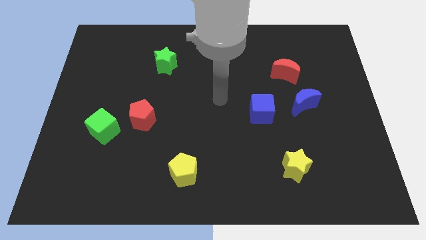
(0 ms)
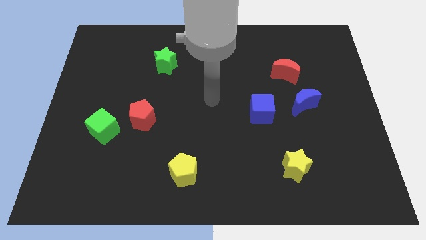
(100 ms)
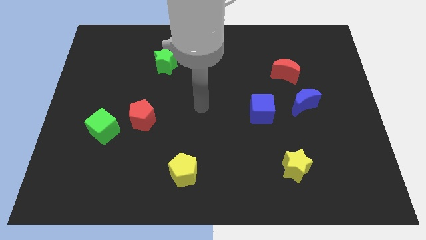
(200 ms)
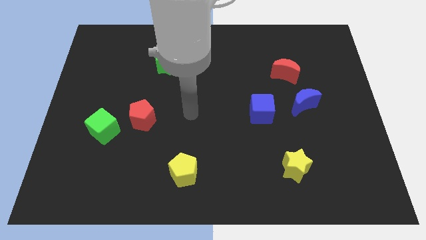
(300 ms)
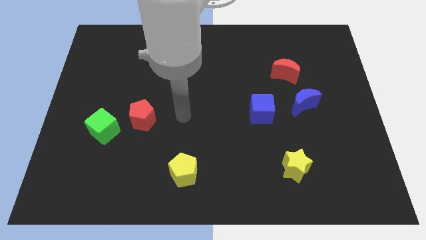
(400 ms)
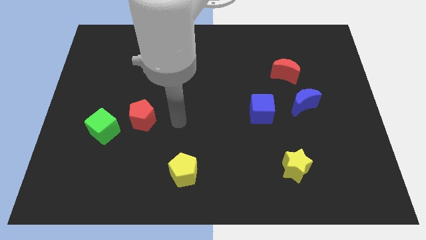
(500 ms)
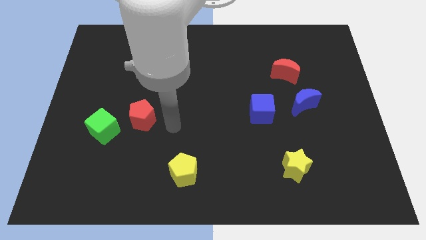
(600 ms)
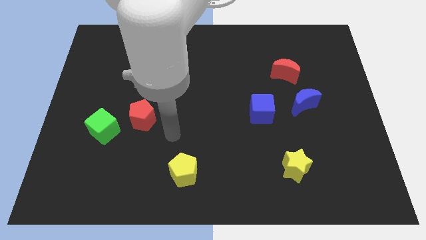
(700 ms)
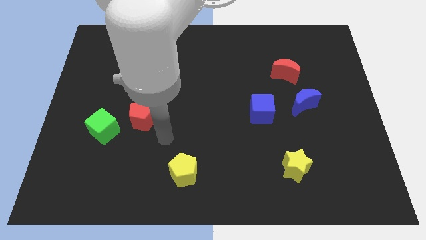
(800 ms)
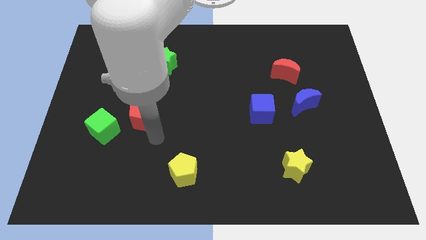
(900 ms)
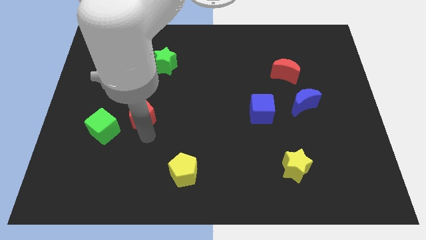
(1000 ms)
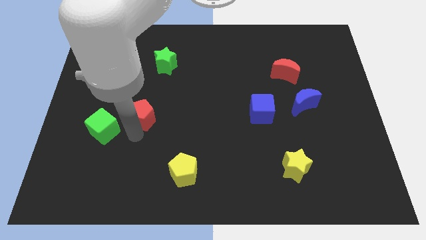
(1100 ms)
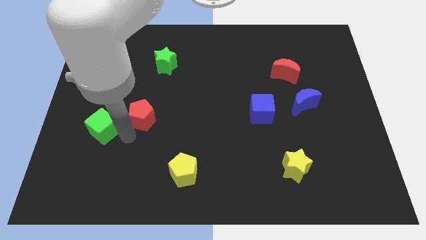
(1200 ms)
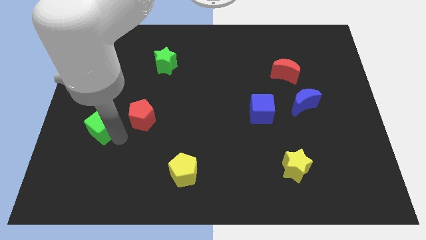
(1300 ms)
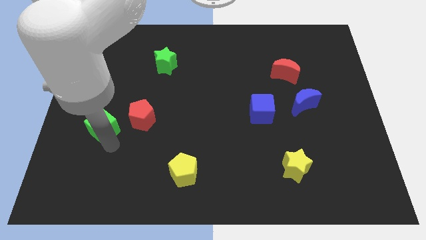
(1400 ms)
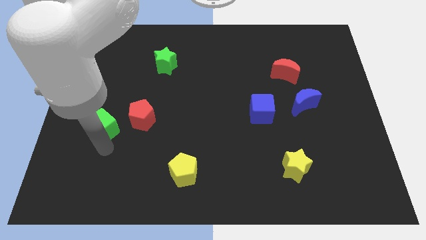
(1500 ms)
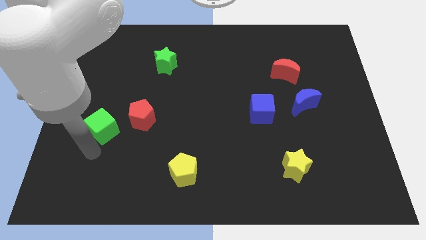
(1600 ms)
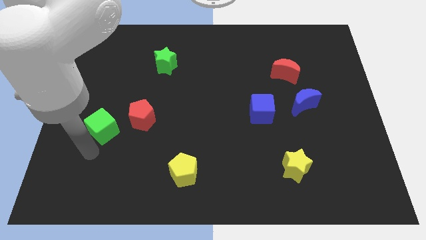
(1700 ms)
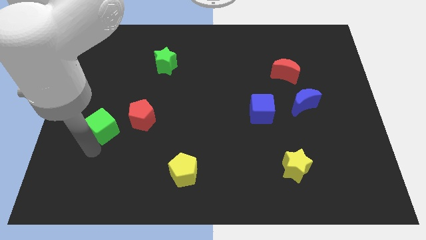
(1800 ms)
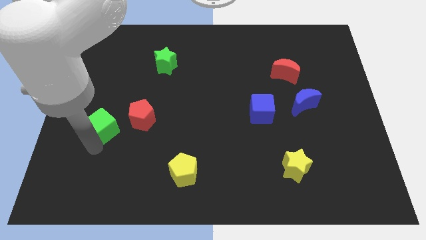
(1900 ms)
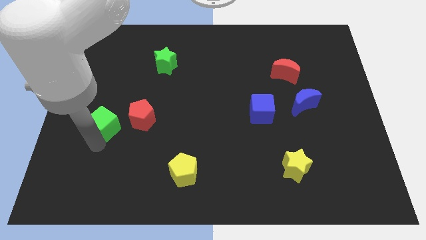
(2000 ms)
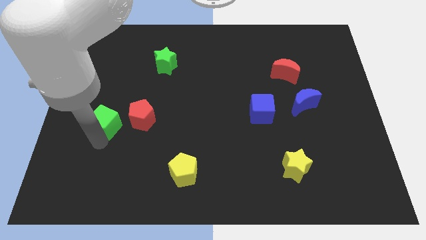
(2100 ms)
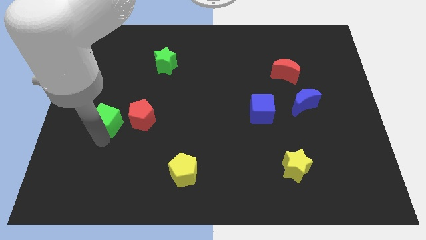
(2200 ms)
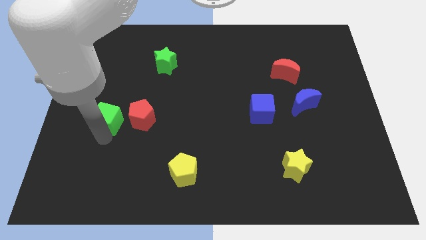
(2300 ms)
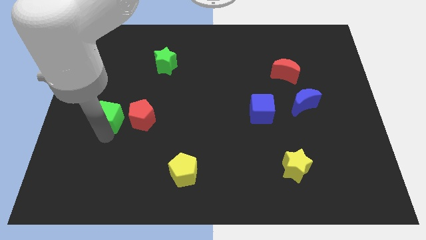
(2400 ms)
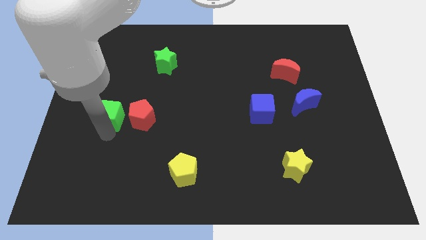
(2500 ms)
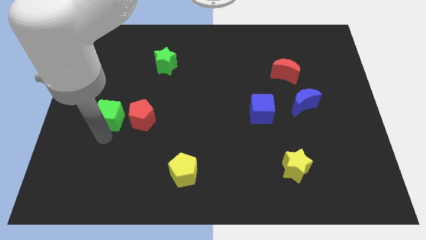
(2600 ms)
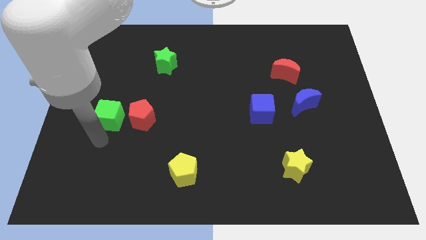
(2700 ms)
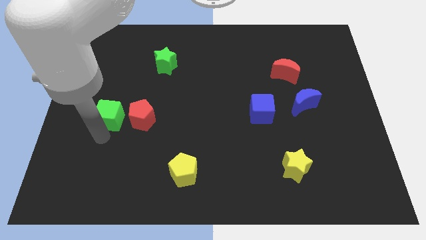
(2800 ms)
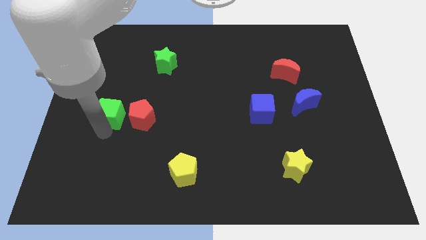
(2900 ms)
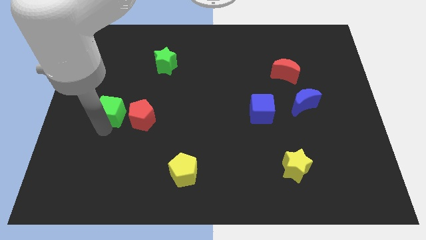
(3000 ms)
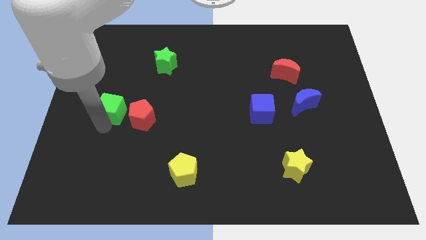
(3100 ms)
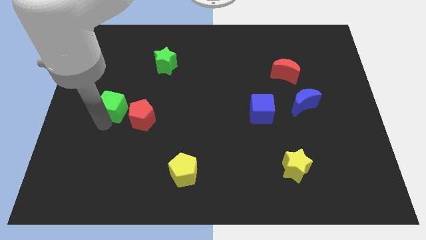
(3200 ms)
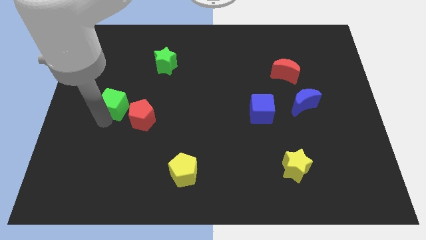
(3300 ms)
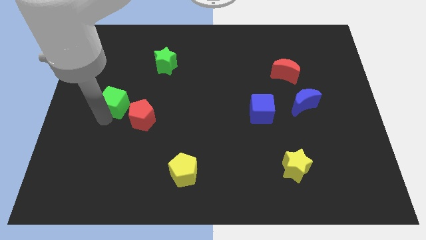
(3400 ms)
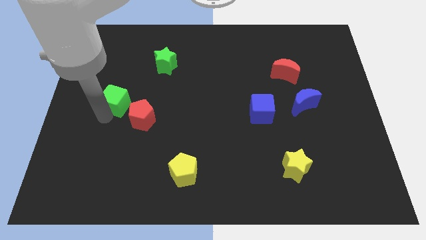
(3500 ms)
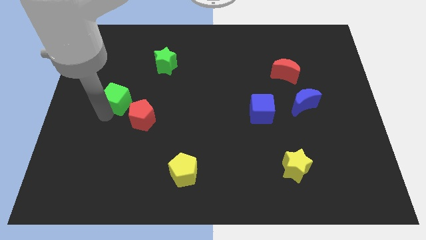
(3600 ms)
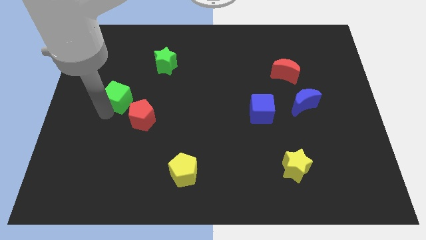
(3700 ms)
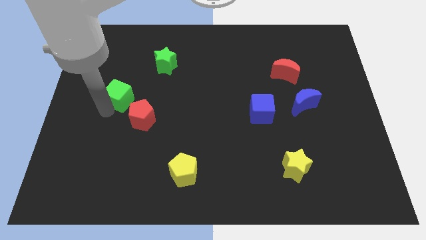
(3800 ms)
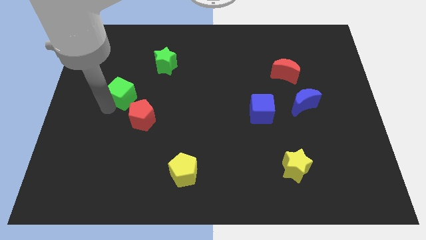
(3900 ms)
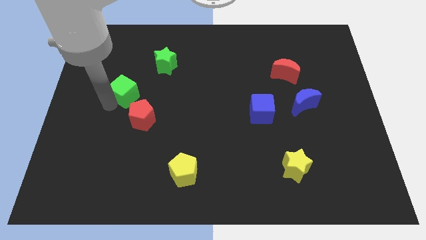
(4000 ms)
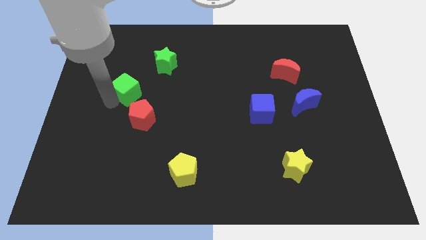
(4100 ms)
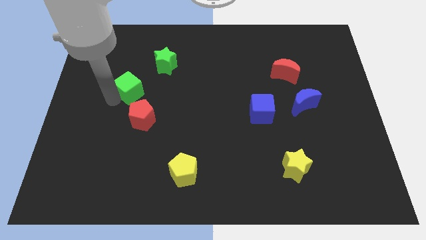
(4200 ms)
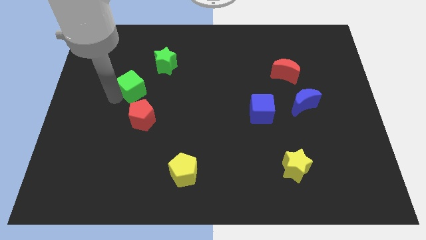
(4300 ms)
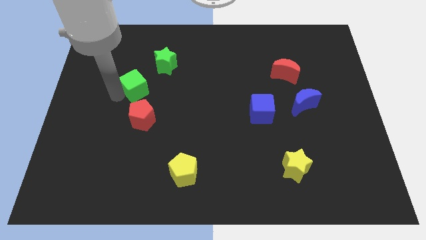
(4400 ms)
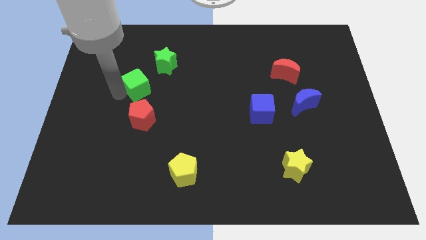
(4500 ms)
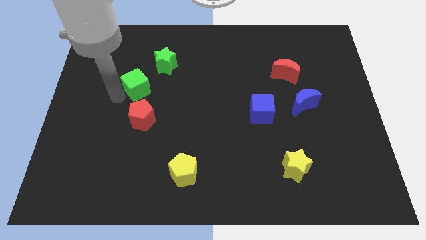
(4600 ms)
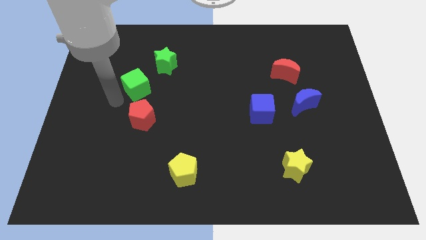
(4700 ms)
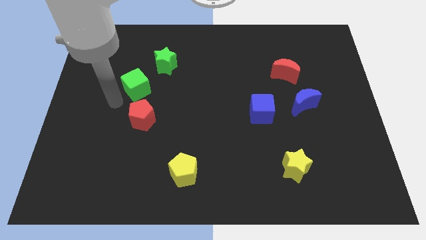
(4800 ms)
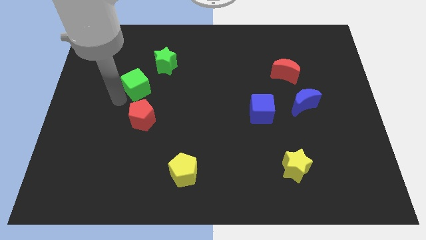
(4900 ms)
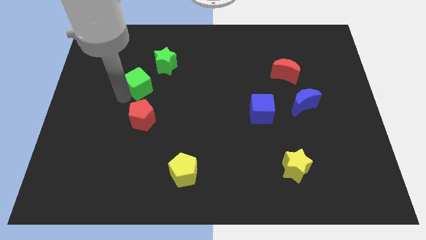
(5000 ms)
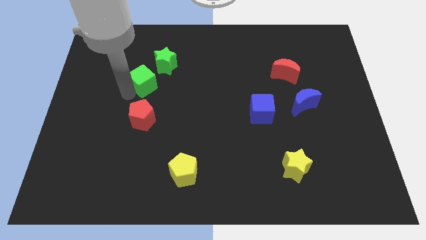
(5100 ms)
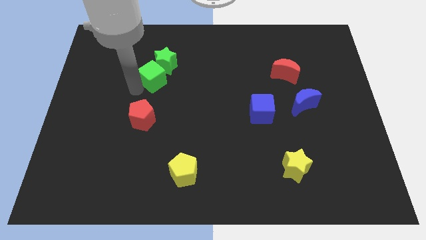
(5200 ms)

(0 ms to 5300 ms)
slide the green cube towards the green star

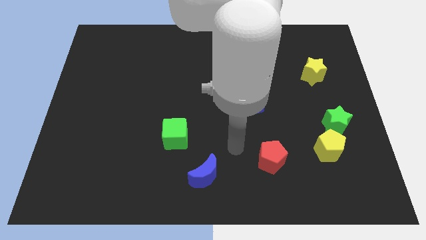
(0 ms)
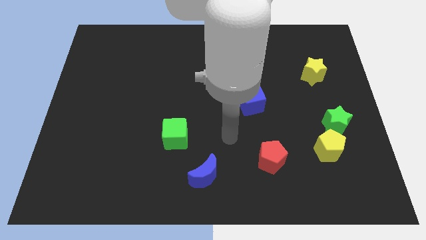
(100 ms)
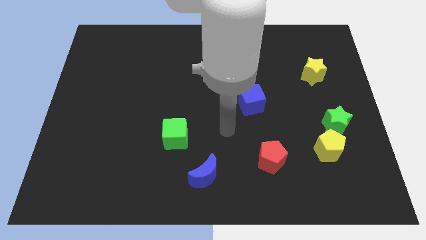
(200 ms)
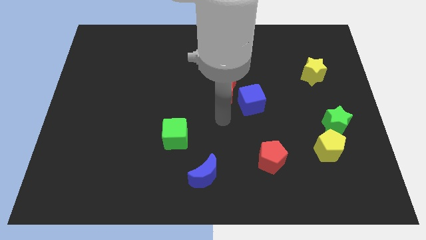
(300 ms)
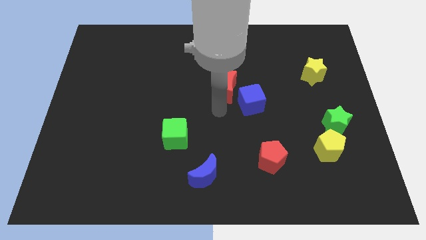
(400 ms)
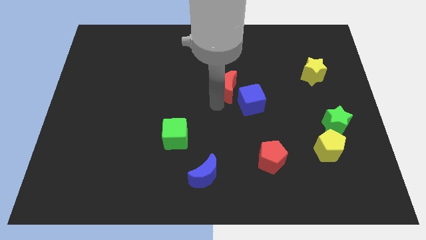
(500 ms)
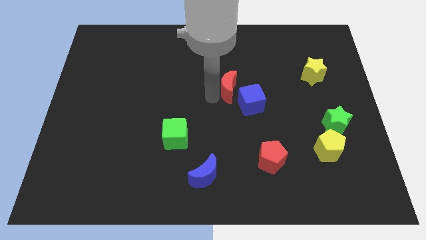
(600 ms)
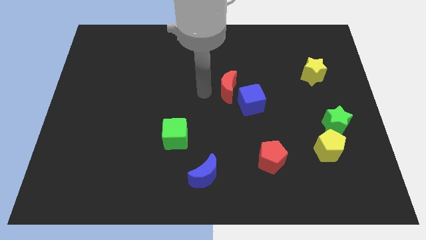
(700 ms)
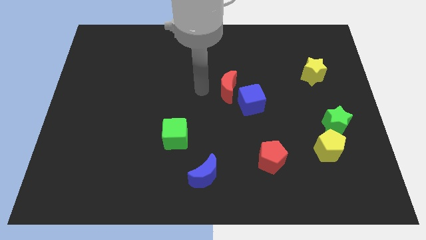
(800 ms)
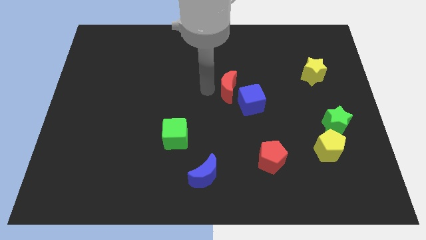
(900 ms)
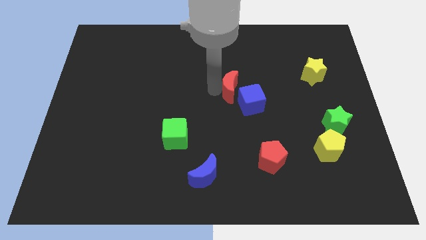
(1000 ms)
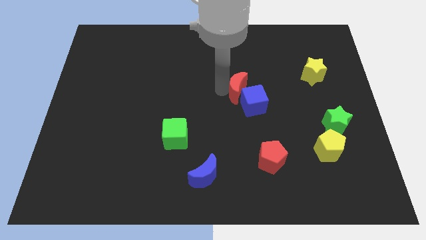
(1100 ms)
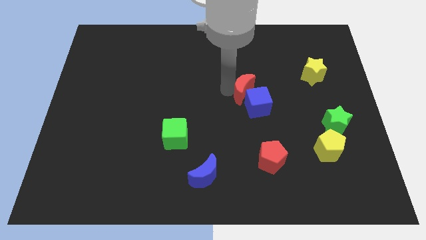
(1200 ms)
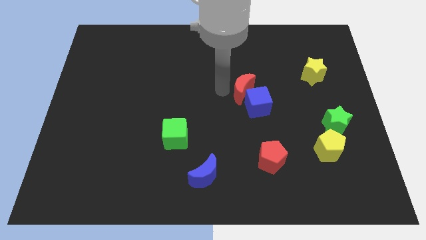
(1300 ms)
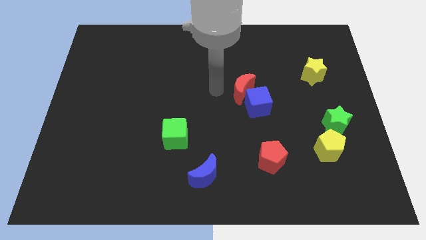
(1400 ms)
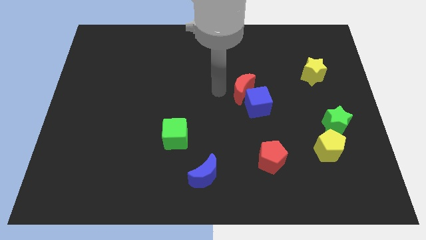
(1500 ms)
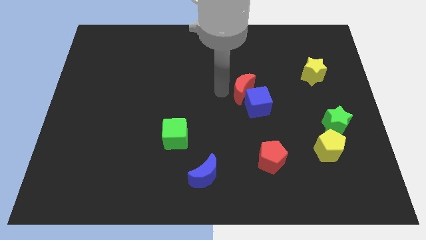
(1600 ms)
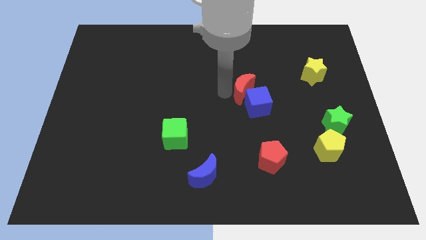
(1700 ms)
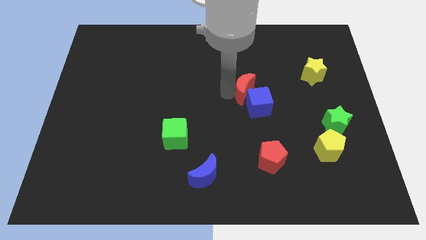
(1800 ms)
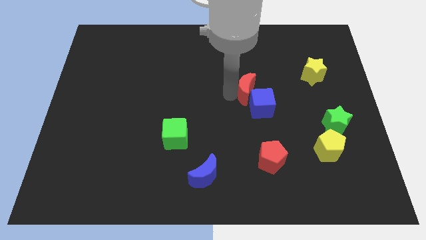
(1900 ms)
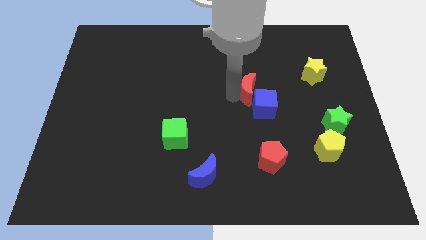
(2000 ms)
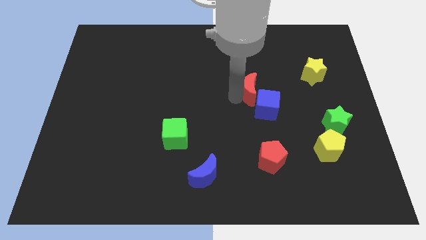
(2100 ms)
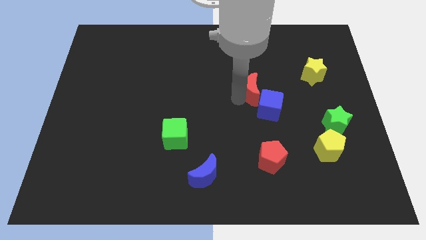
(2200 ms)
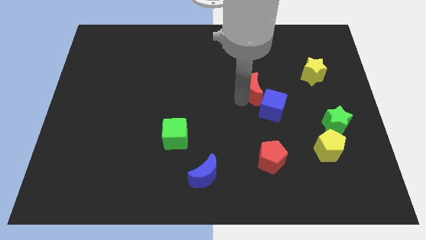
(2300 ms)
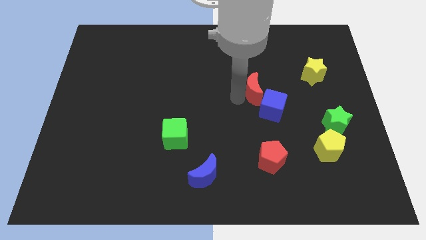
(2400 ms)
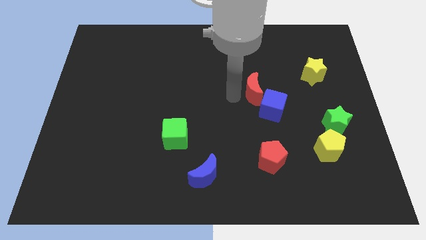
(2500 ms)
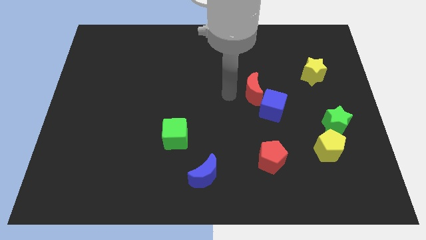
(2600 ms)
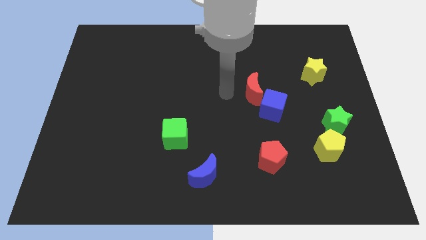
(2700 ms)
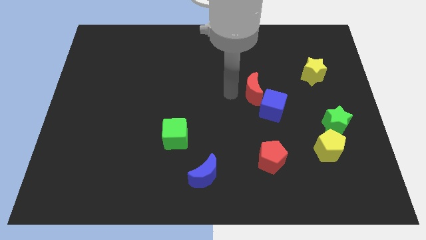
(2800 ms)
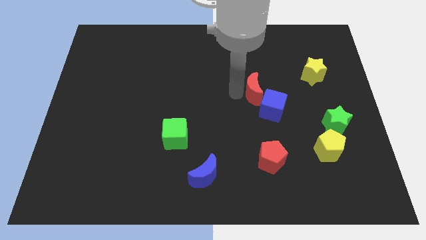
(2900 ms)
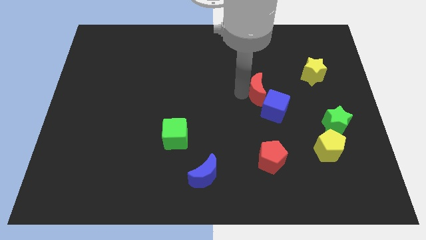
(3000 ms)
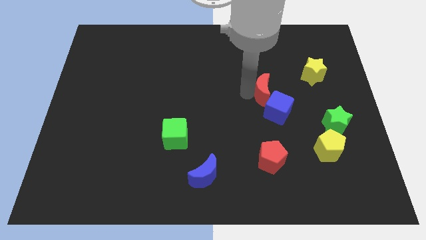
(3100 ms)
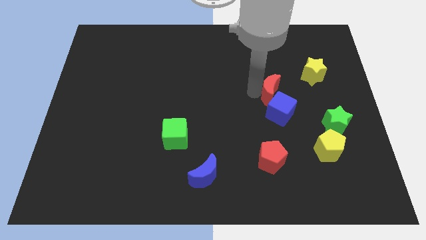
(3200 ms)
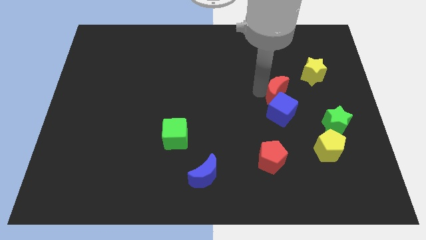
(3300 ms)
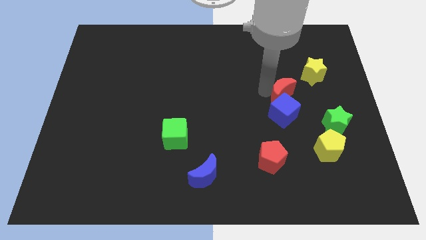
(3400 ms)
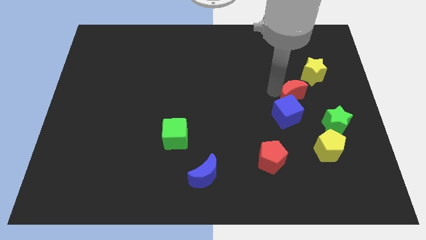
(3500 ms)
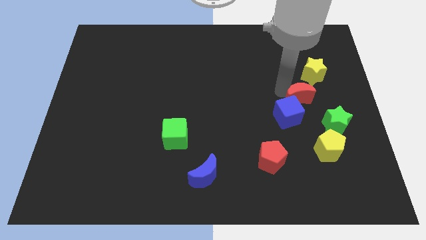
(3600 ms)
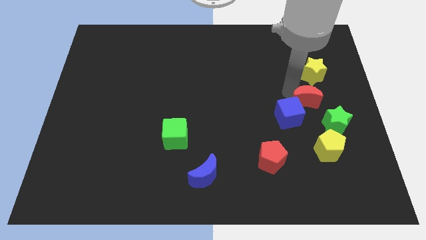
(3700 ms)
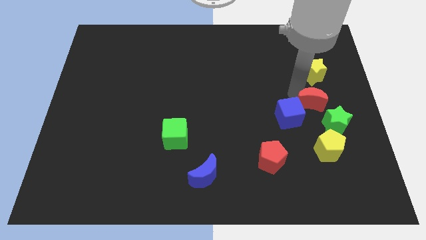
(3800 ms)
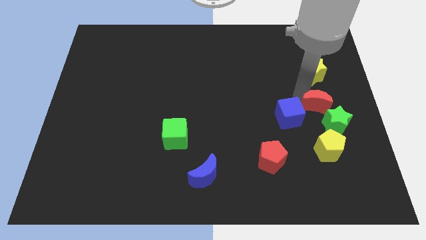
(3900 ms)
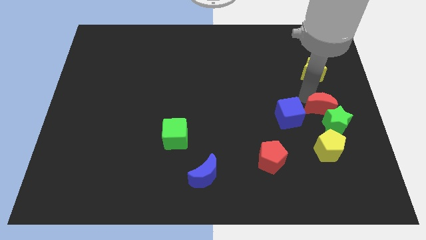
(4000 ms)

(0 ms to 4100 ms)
push the red moon next to the green star
